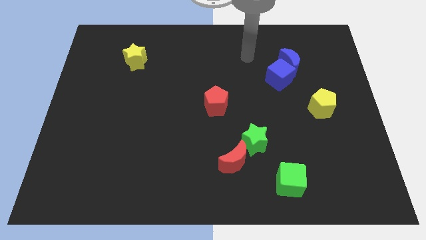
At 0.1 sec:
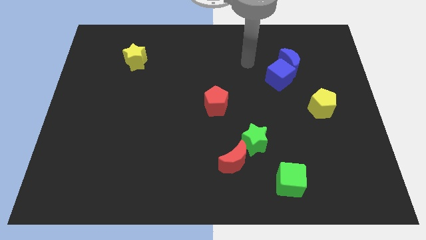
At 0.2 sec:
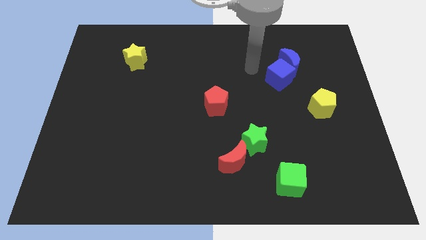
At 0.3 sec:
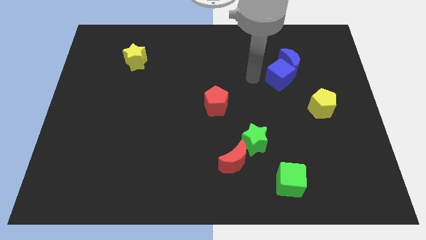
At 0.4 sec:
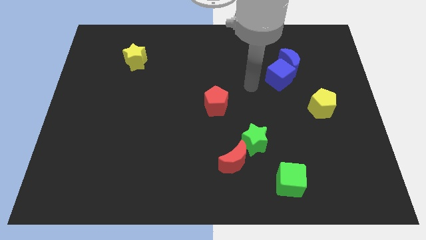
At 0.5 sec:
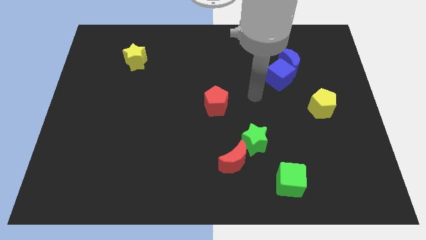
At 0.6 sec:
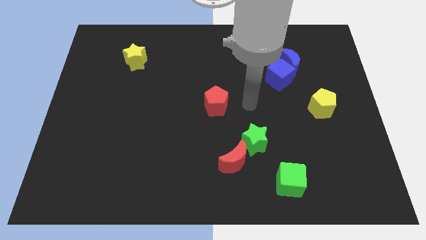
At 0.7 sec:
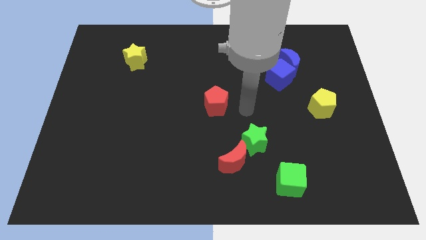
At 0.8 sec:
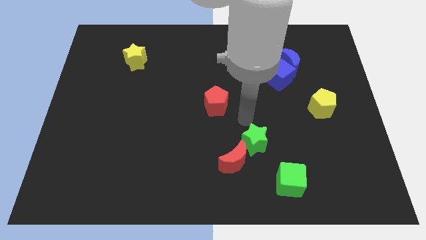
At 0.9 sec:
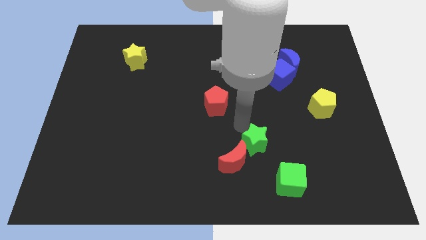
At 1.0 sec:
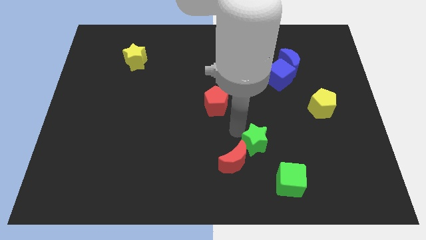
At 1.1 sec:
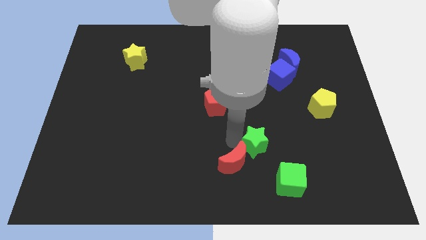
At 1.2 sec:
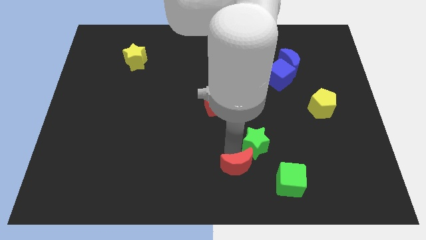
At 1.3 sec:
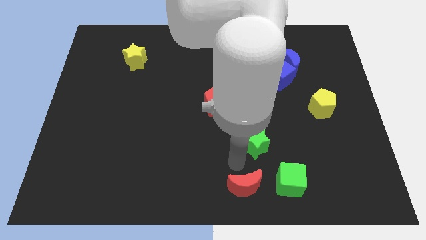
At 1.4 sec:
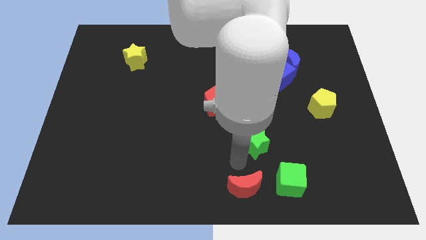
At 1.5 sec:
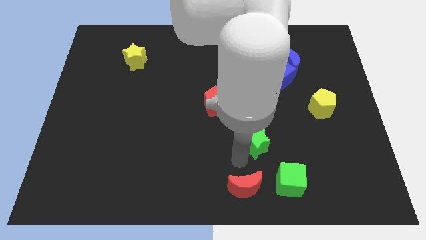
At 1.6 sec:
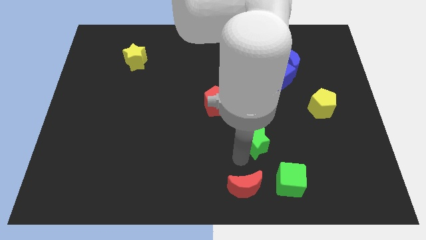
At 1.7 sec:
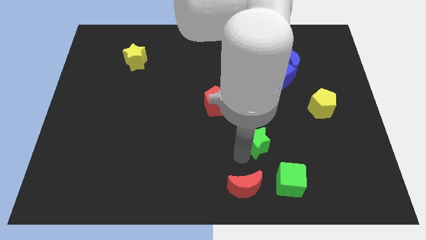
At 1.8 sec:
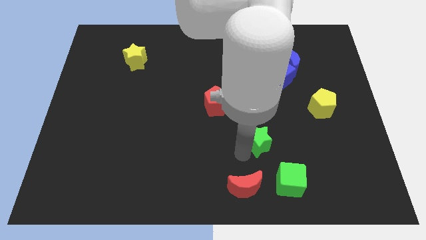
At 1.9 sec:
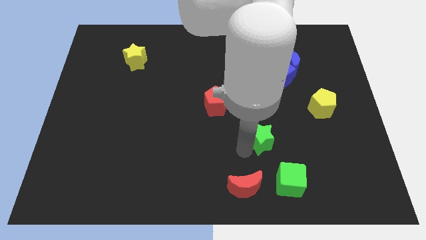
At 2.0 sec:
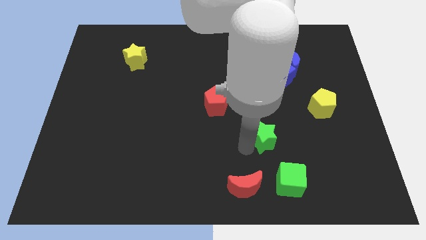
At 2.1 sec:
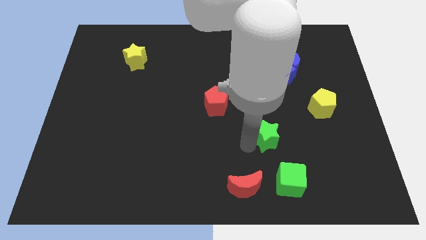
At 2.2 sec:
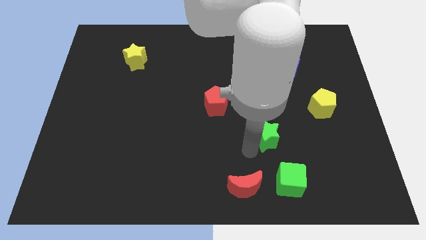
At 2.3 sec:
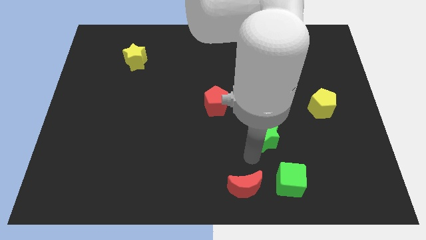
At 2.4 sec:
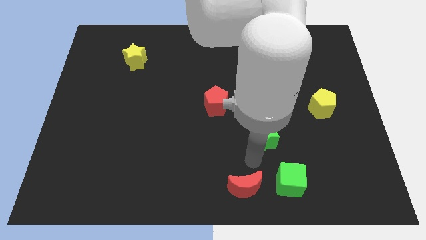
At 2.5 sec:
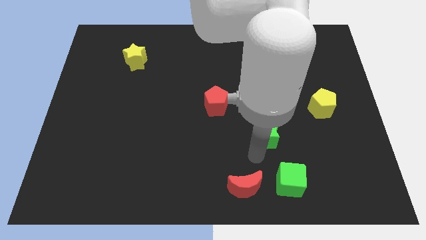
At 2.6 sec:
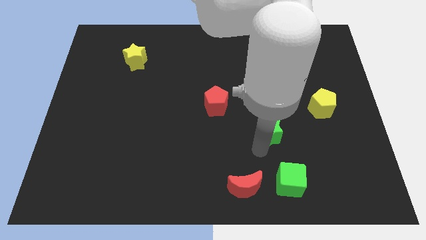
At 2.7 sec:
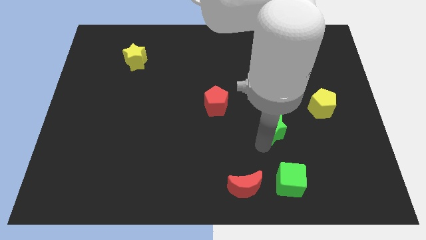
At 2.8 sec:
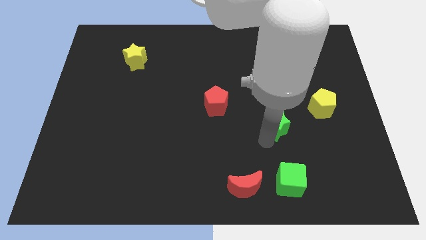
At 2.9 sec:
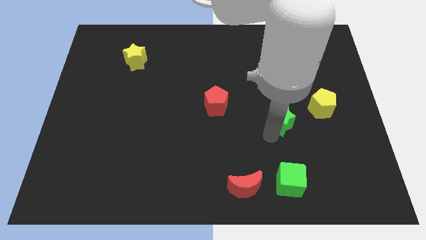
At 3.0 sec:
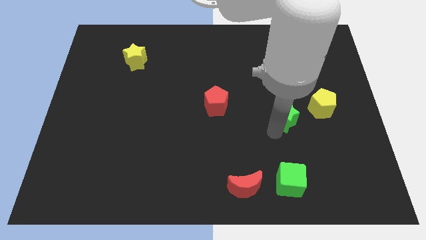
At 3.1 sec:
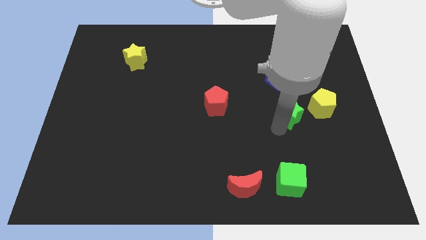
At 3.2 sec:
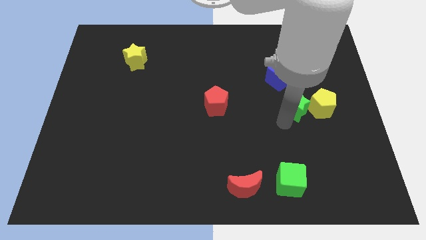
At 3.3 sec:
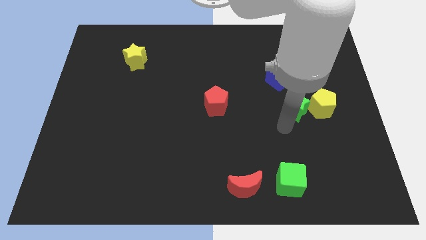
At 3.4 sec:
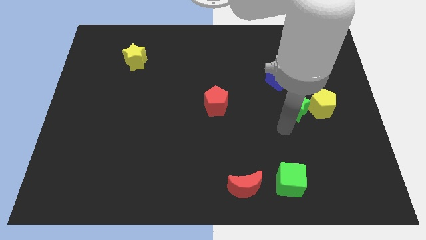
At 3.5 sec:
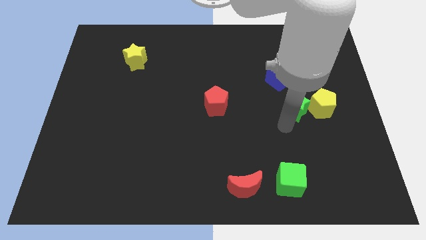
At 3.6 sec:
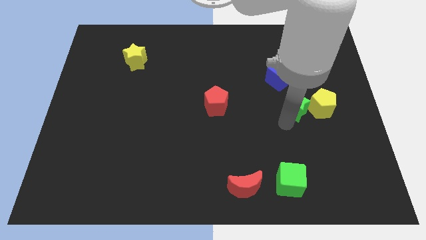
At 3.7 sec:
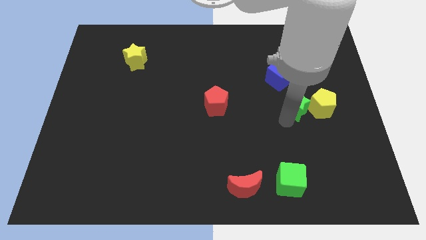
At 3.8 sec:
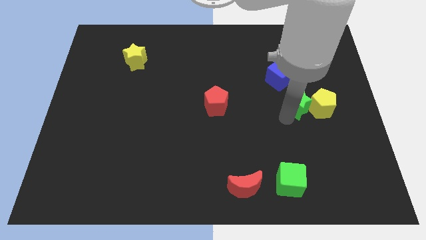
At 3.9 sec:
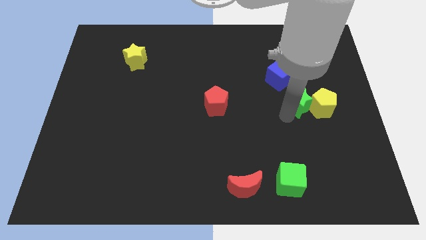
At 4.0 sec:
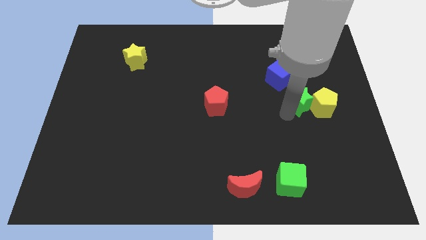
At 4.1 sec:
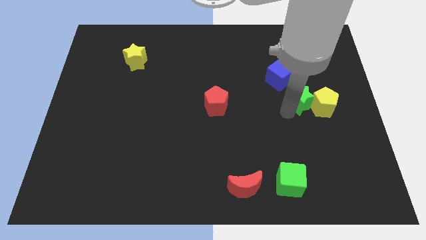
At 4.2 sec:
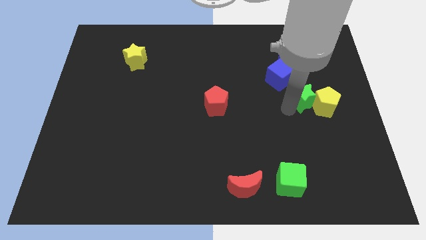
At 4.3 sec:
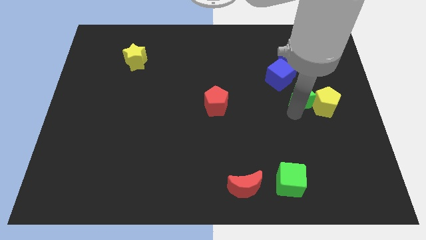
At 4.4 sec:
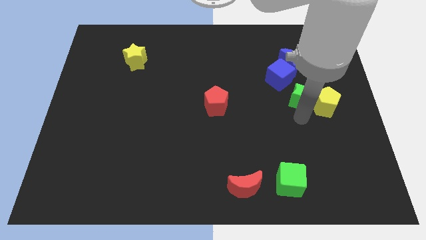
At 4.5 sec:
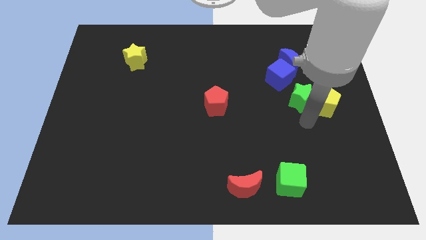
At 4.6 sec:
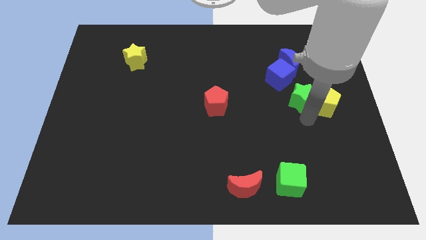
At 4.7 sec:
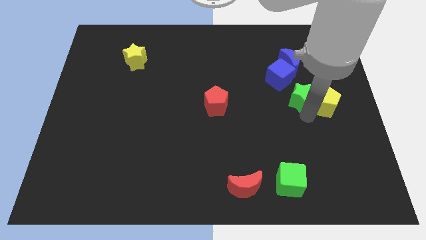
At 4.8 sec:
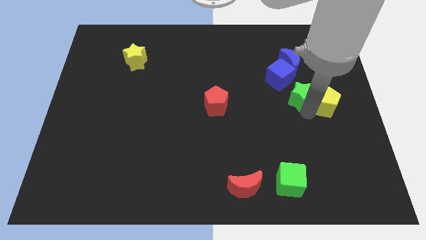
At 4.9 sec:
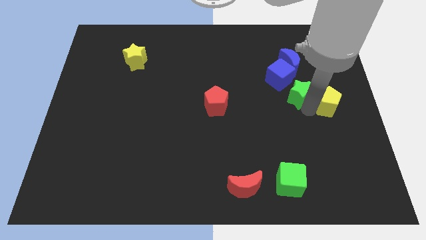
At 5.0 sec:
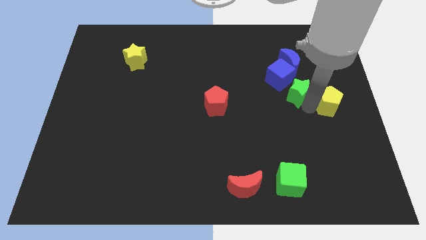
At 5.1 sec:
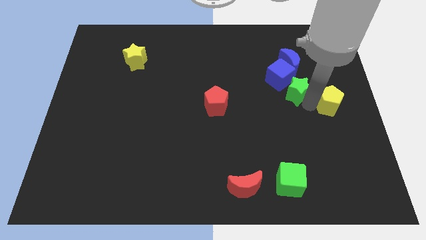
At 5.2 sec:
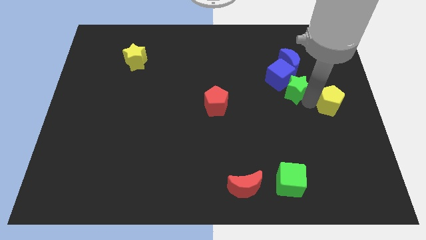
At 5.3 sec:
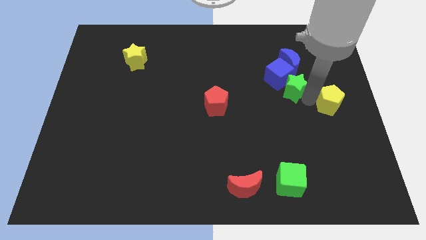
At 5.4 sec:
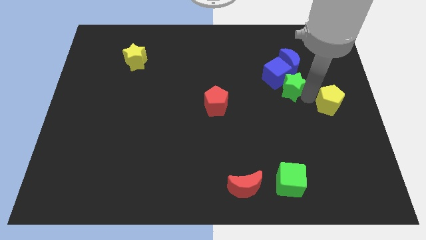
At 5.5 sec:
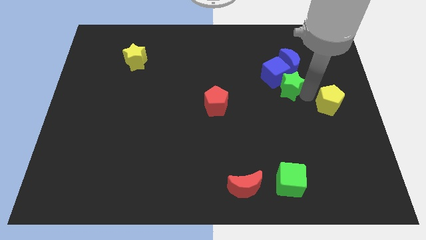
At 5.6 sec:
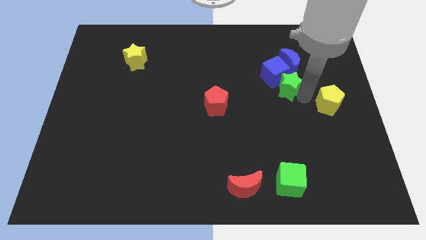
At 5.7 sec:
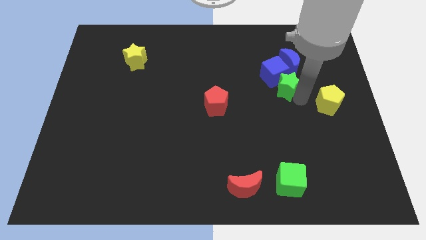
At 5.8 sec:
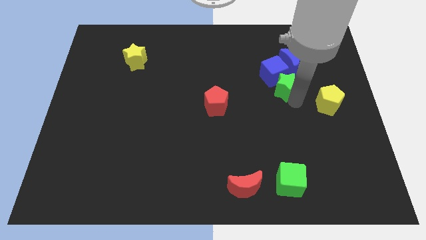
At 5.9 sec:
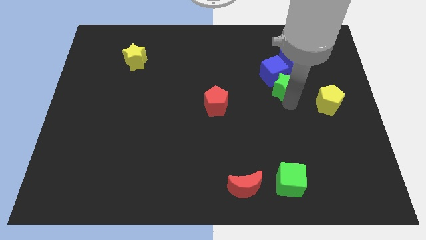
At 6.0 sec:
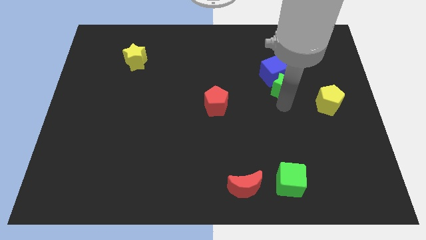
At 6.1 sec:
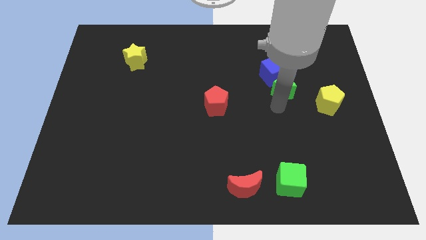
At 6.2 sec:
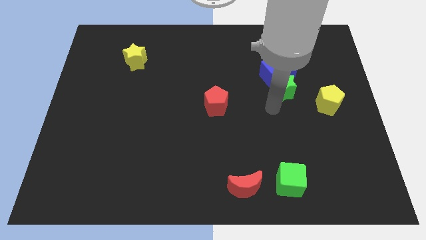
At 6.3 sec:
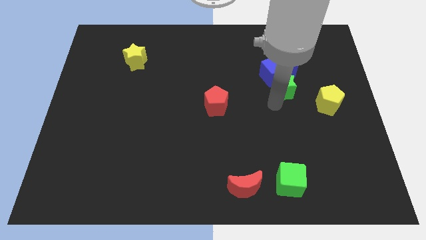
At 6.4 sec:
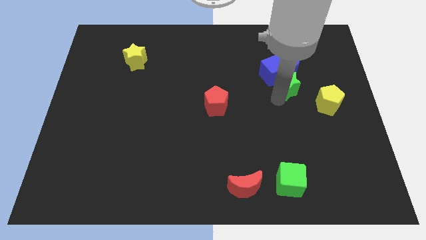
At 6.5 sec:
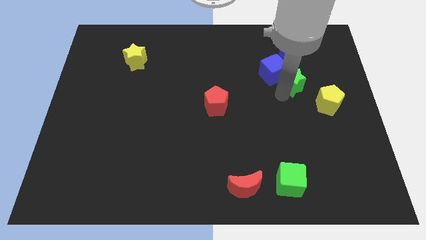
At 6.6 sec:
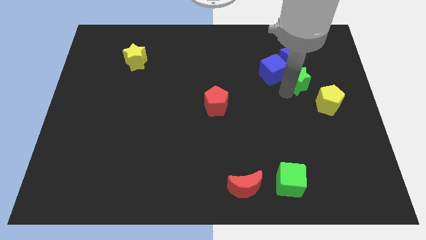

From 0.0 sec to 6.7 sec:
slide the green star to the blue moon

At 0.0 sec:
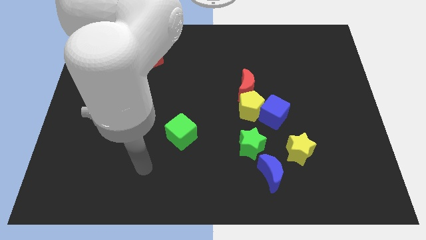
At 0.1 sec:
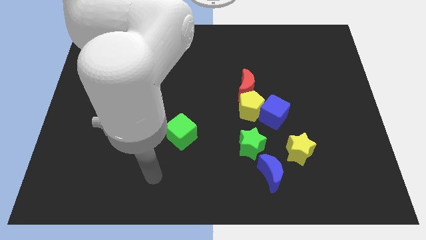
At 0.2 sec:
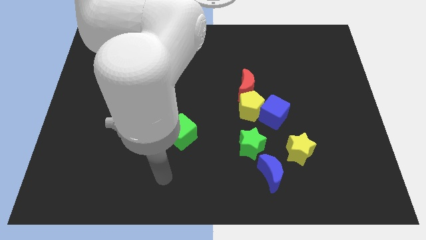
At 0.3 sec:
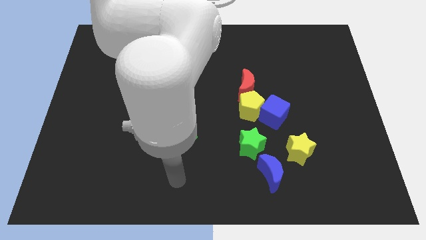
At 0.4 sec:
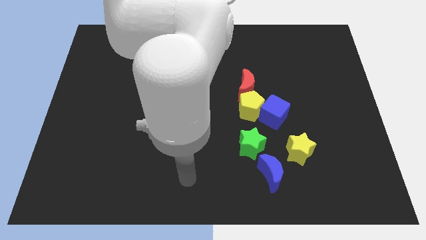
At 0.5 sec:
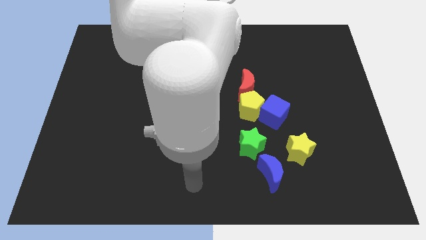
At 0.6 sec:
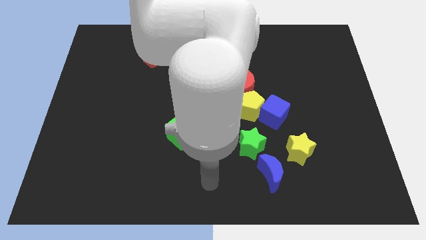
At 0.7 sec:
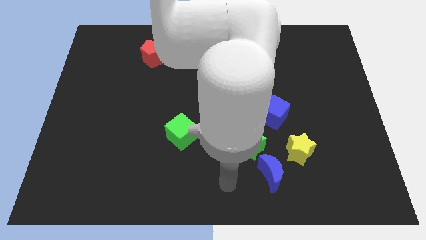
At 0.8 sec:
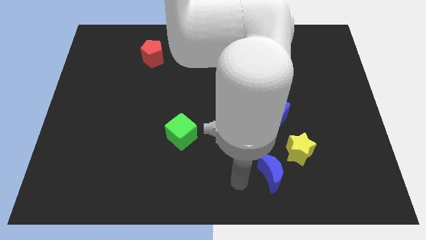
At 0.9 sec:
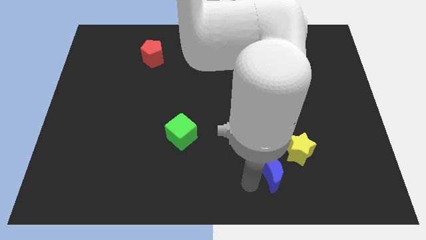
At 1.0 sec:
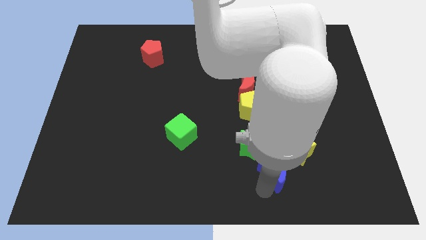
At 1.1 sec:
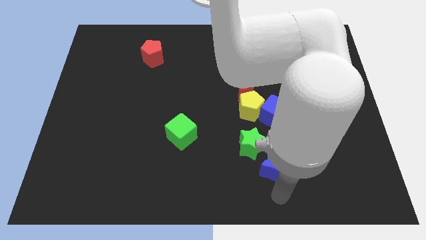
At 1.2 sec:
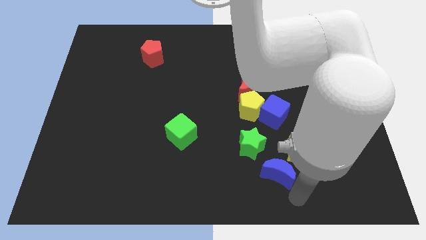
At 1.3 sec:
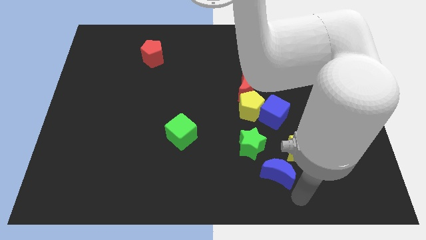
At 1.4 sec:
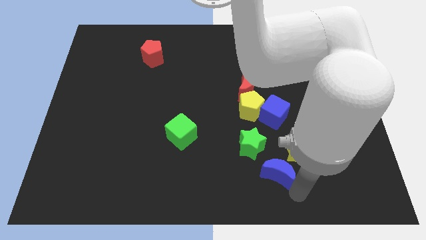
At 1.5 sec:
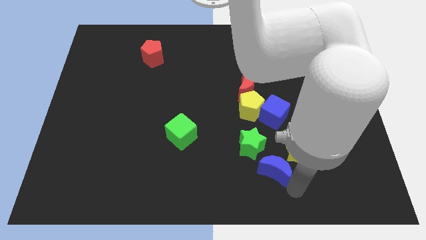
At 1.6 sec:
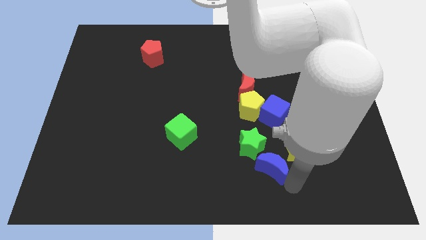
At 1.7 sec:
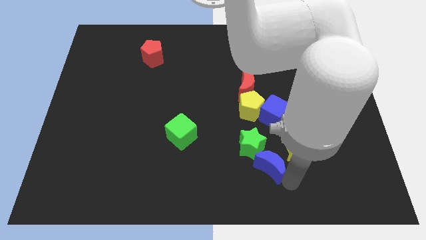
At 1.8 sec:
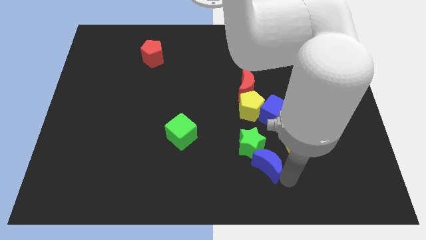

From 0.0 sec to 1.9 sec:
move the blue moon close to the green star
